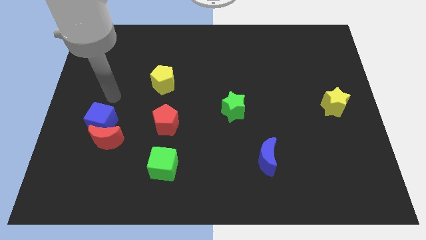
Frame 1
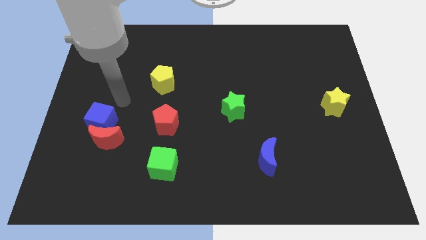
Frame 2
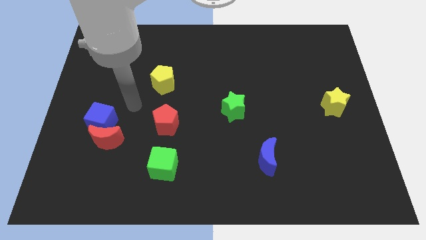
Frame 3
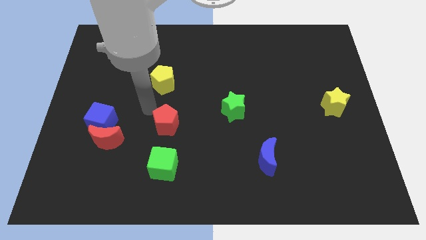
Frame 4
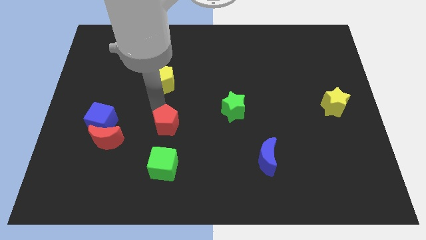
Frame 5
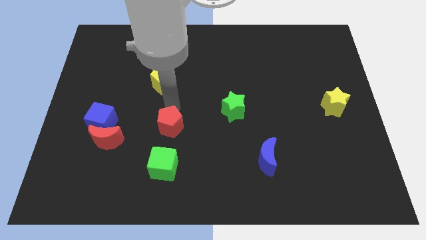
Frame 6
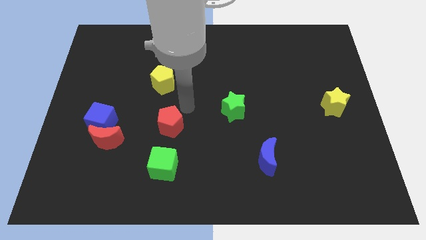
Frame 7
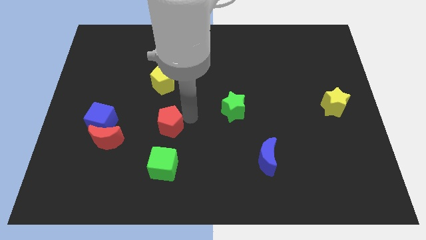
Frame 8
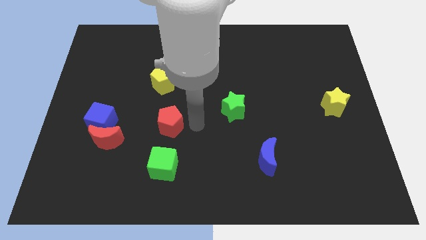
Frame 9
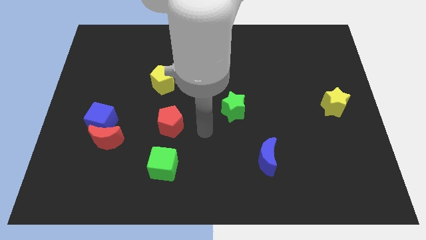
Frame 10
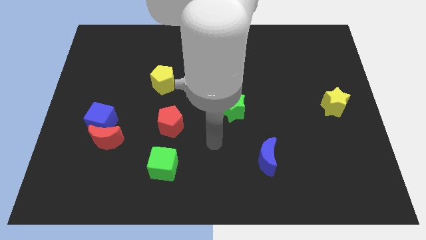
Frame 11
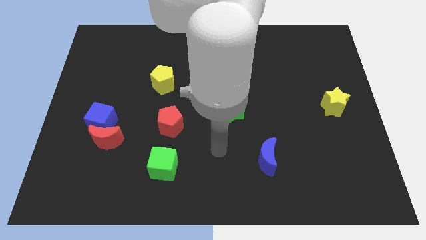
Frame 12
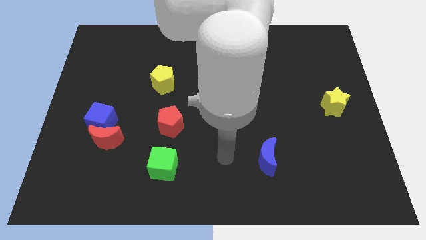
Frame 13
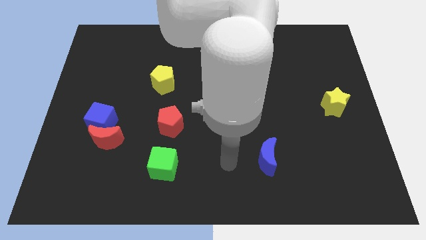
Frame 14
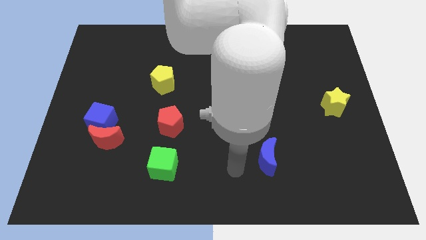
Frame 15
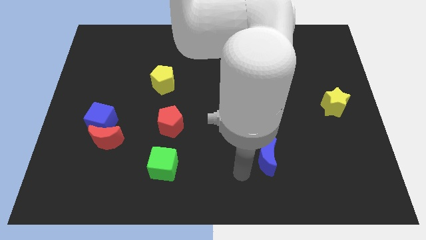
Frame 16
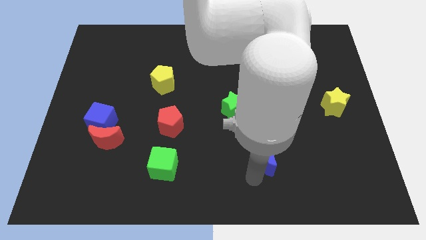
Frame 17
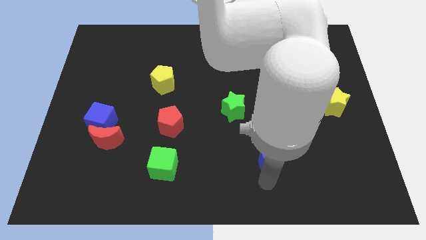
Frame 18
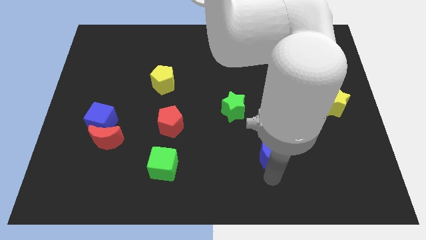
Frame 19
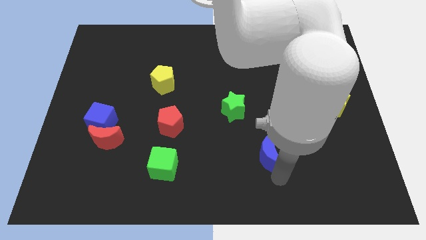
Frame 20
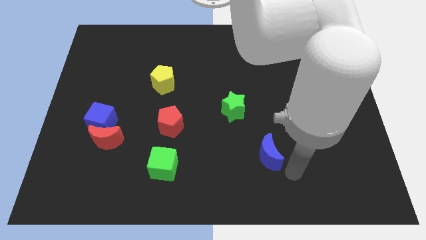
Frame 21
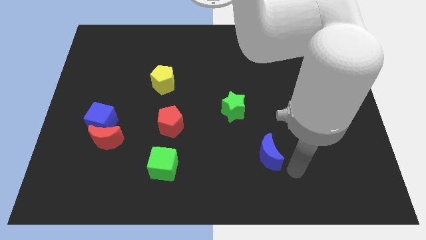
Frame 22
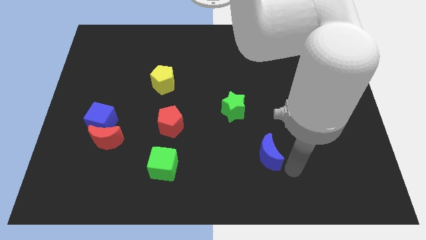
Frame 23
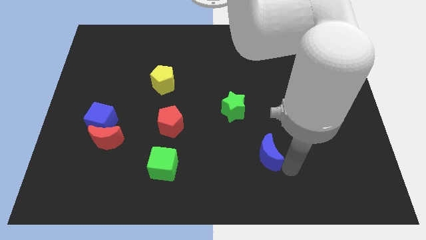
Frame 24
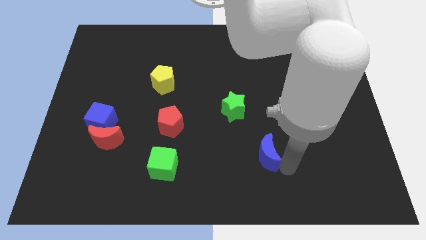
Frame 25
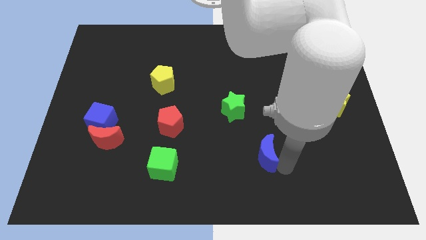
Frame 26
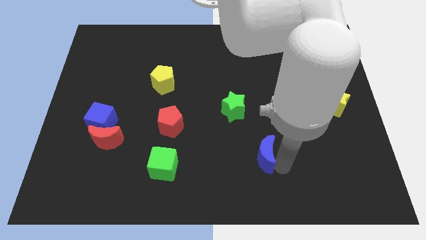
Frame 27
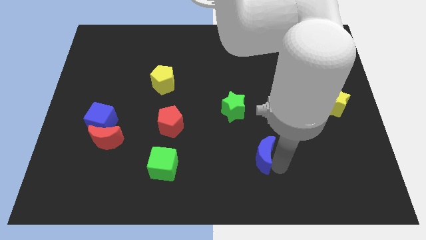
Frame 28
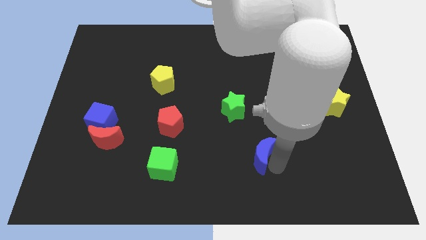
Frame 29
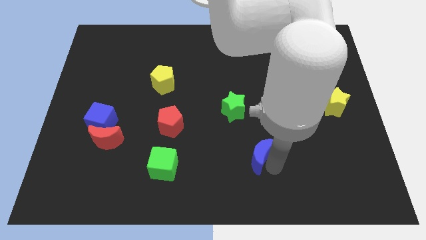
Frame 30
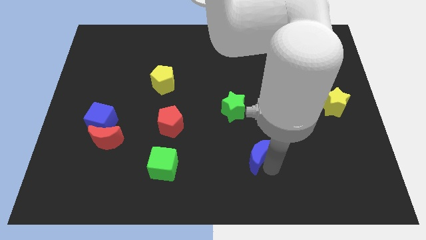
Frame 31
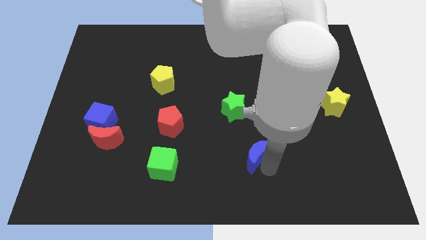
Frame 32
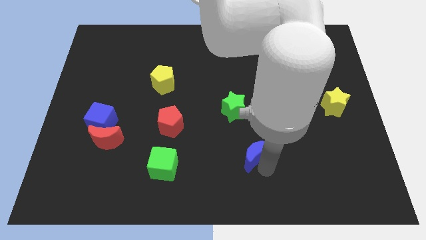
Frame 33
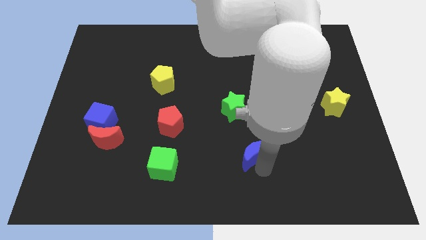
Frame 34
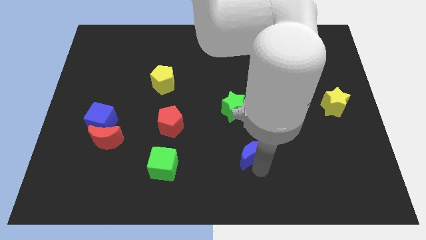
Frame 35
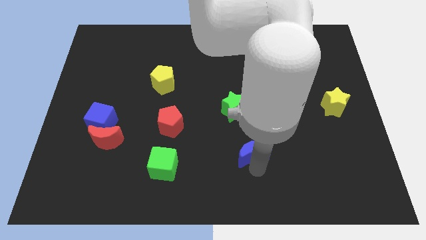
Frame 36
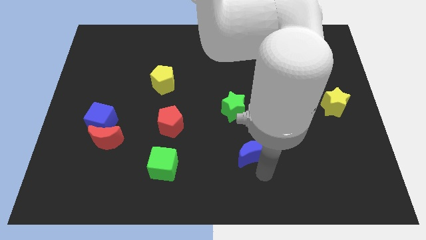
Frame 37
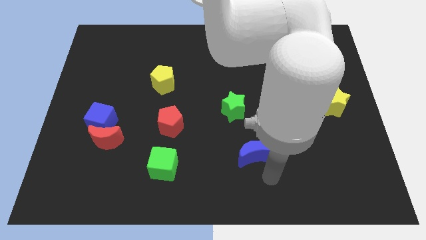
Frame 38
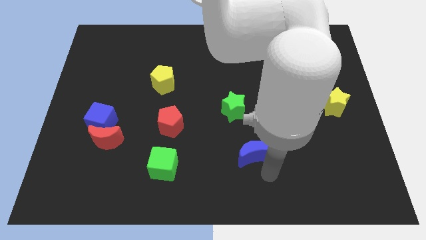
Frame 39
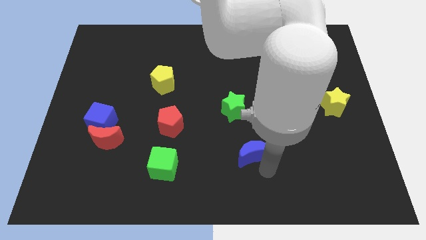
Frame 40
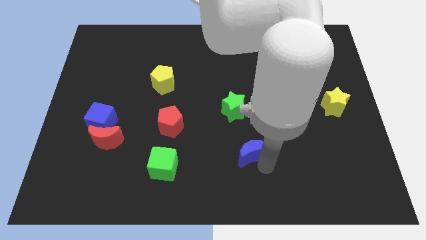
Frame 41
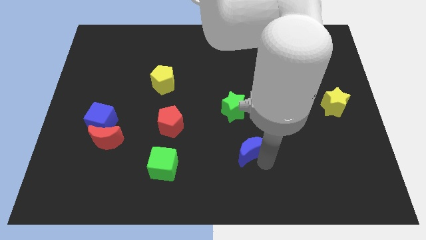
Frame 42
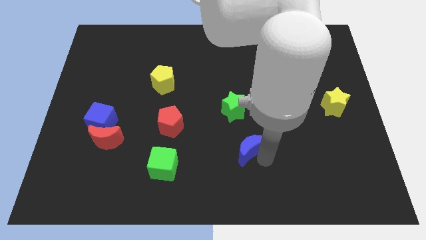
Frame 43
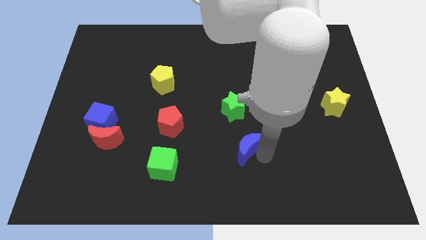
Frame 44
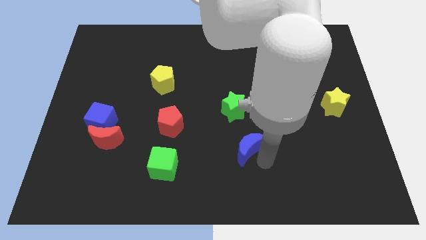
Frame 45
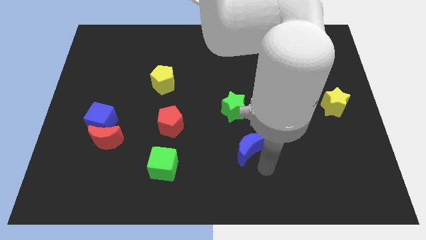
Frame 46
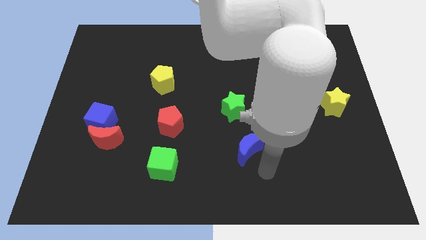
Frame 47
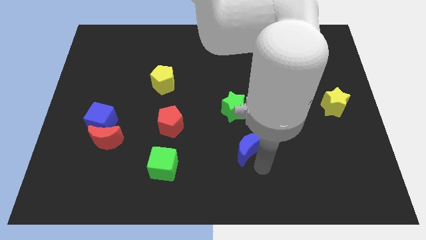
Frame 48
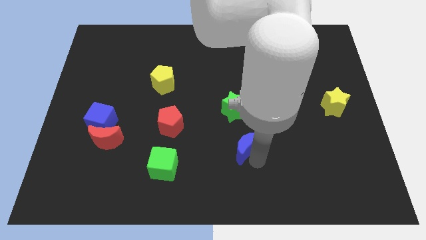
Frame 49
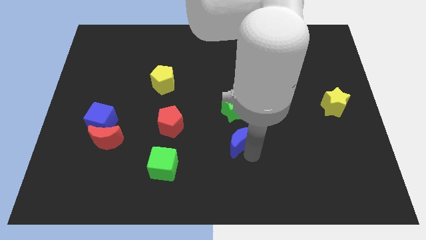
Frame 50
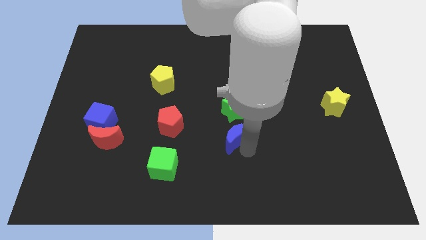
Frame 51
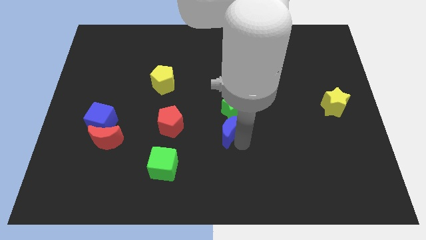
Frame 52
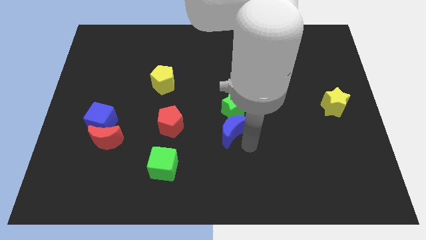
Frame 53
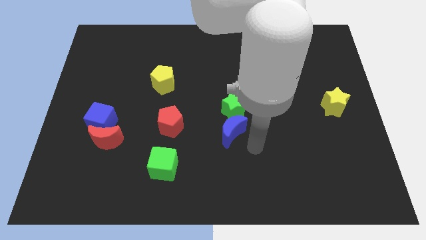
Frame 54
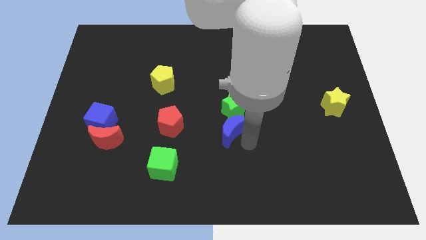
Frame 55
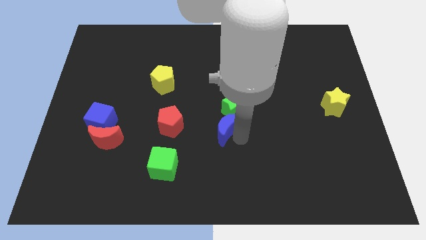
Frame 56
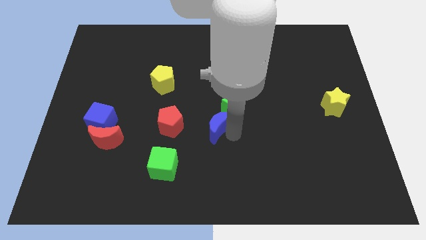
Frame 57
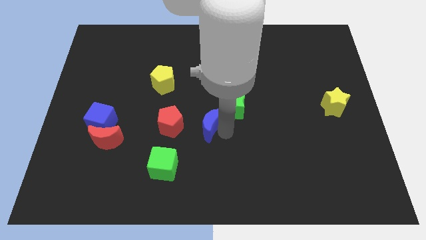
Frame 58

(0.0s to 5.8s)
push the blue moon to the left of the green star

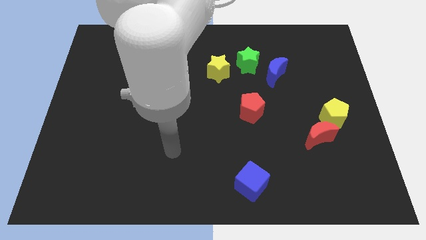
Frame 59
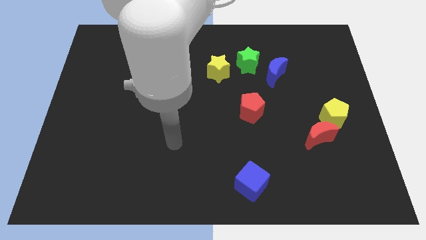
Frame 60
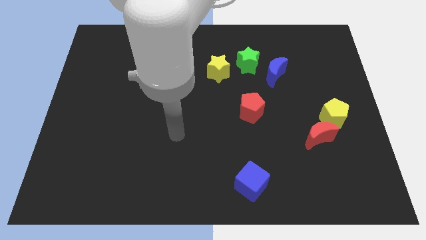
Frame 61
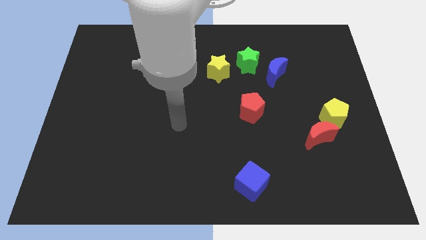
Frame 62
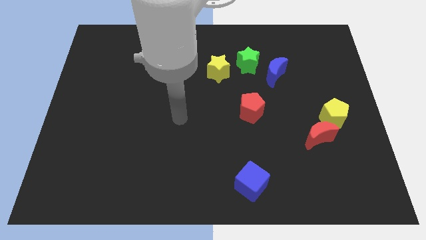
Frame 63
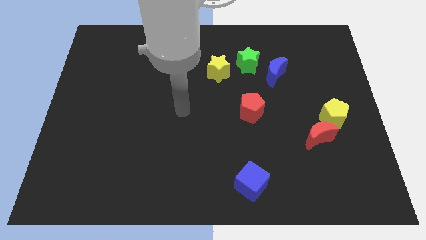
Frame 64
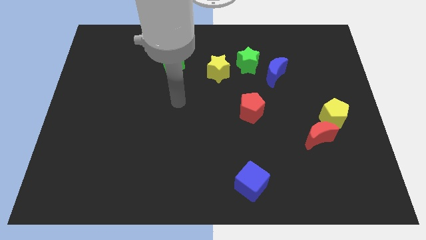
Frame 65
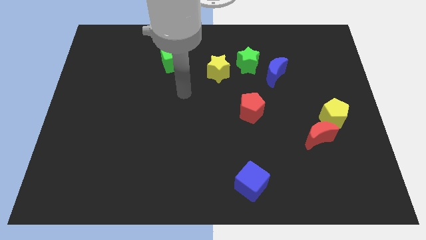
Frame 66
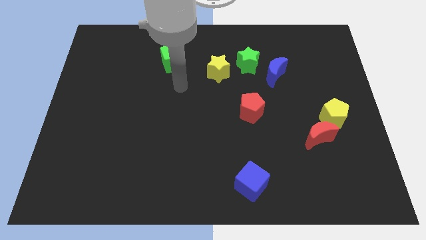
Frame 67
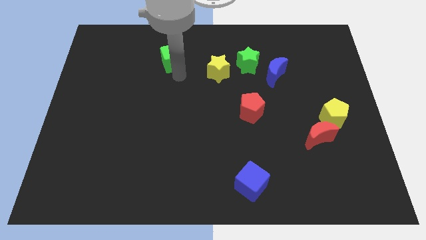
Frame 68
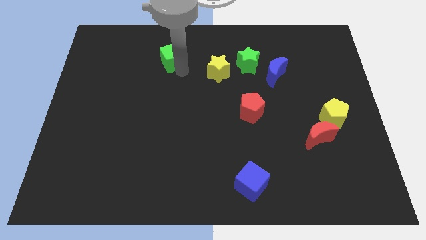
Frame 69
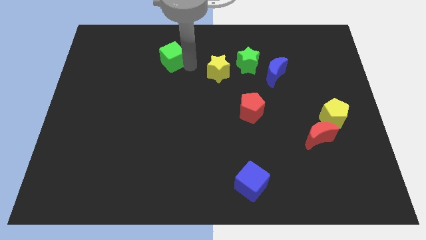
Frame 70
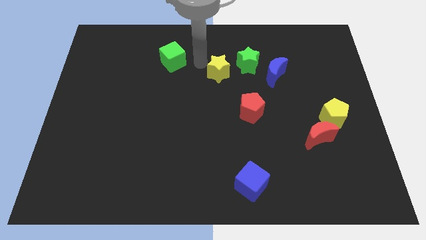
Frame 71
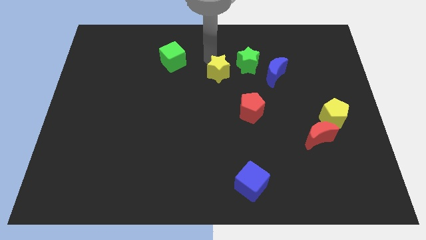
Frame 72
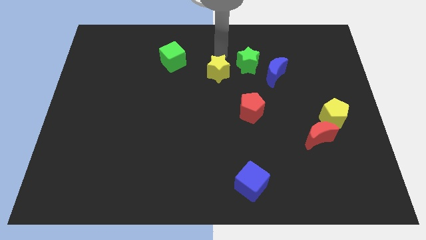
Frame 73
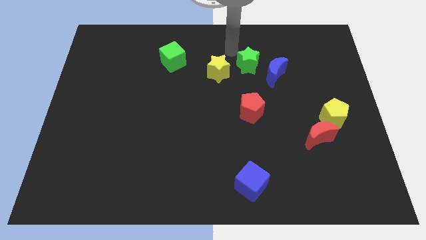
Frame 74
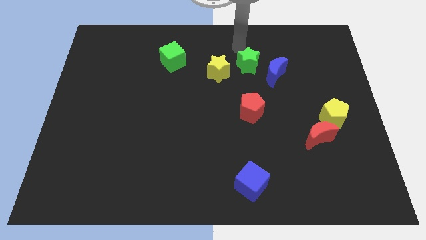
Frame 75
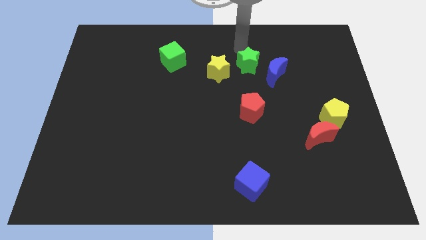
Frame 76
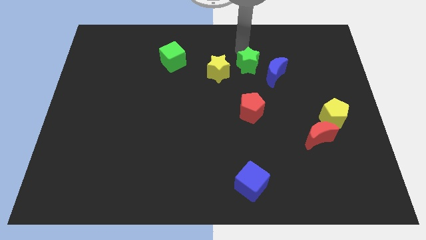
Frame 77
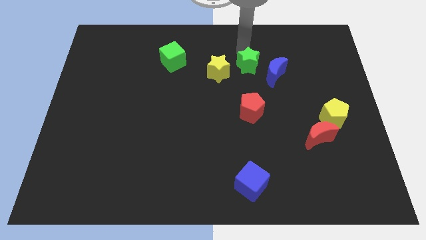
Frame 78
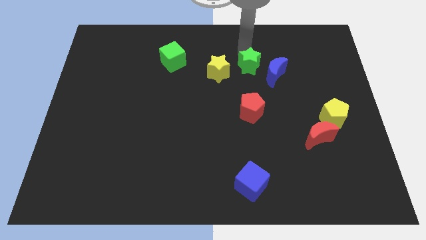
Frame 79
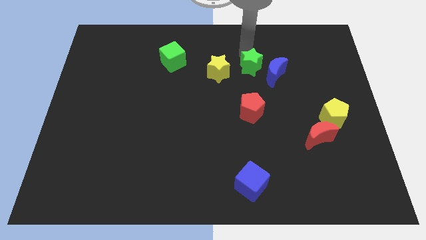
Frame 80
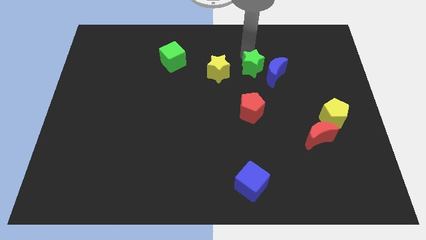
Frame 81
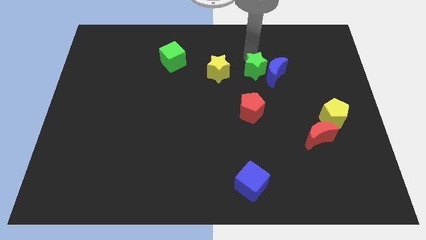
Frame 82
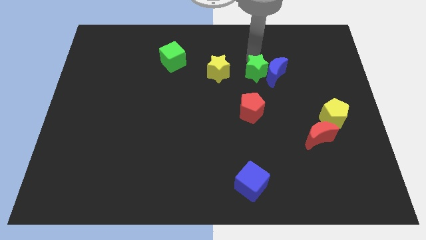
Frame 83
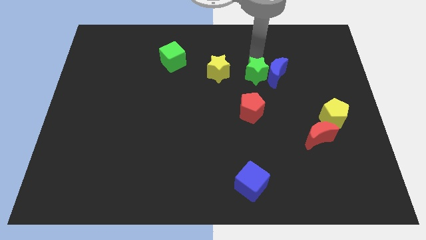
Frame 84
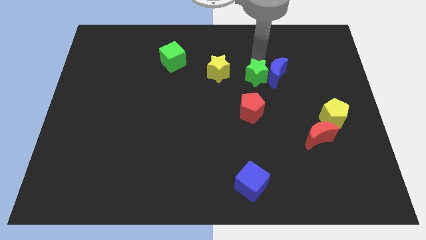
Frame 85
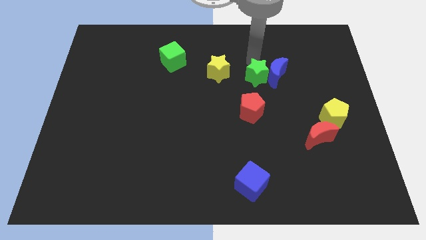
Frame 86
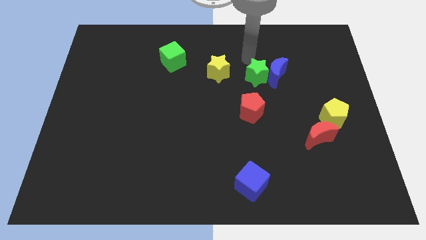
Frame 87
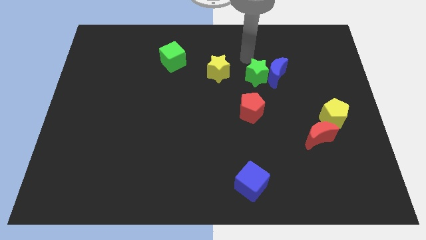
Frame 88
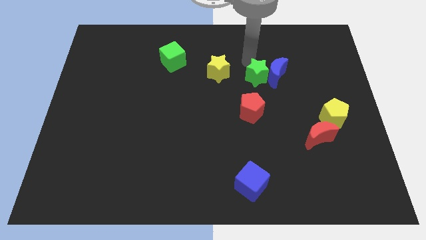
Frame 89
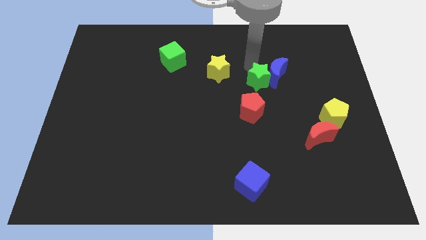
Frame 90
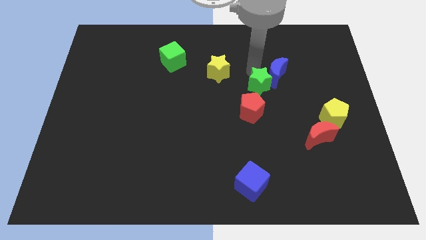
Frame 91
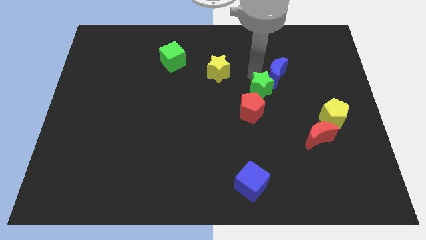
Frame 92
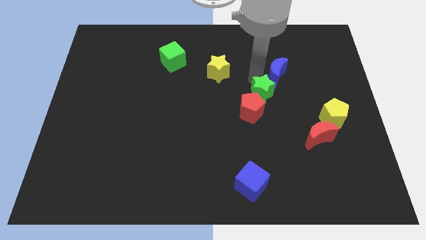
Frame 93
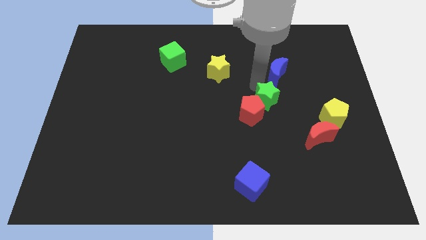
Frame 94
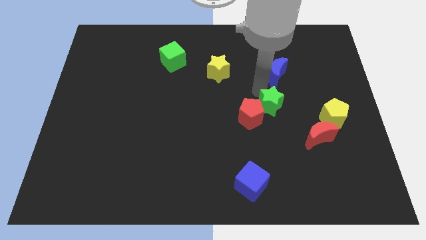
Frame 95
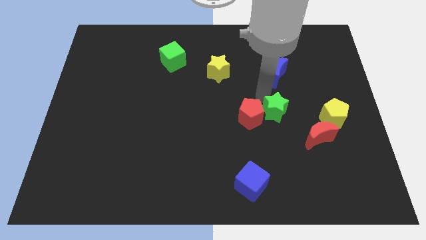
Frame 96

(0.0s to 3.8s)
put the green star to the bottom right of the red pentagon
